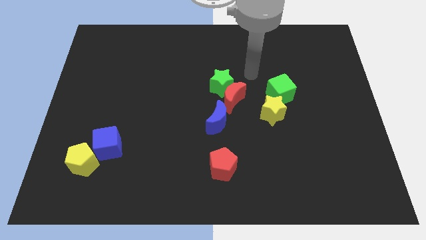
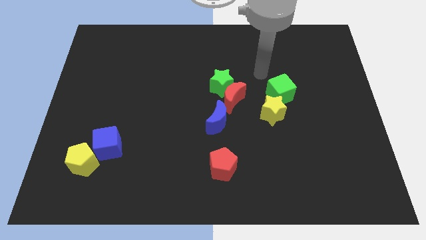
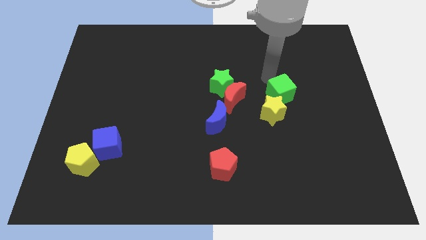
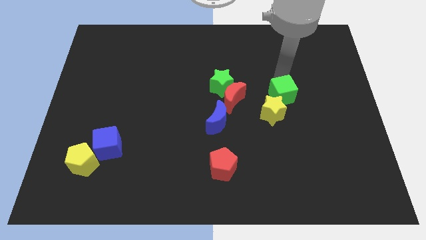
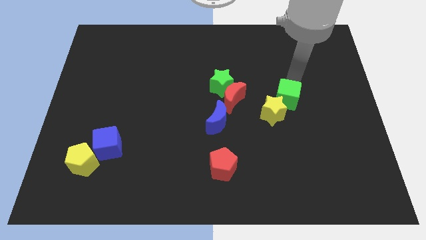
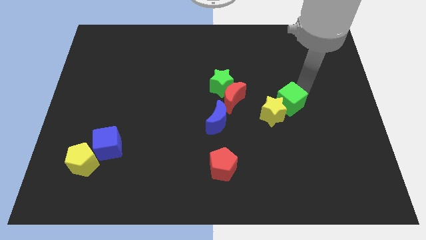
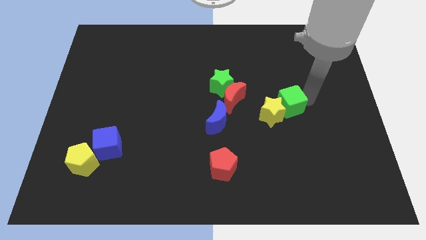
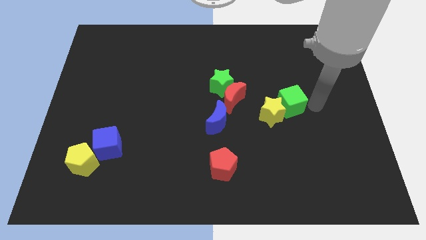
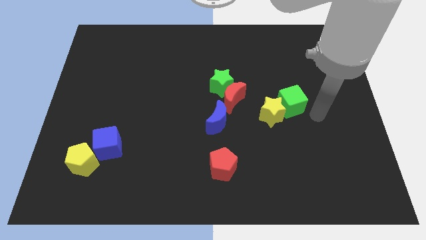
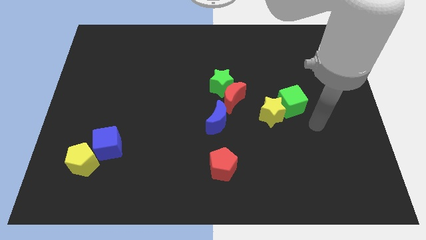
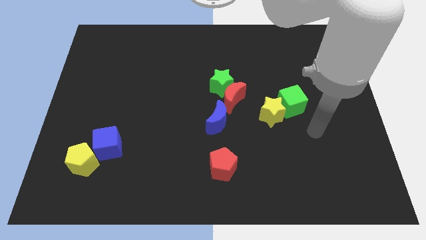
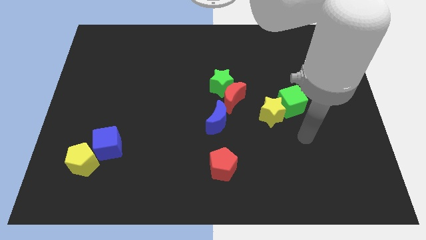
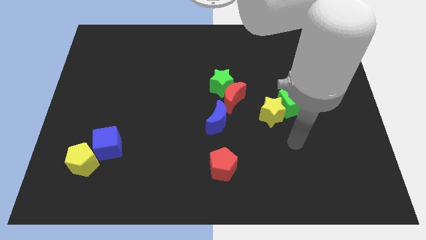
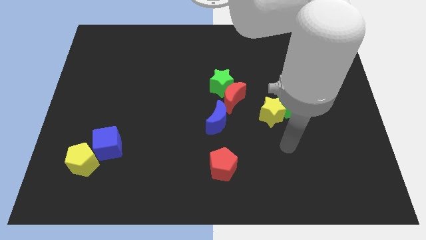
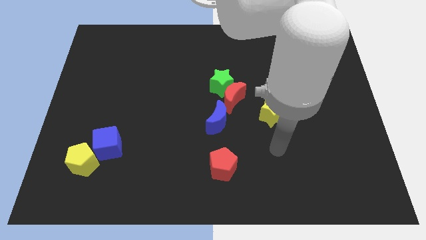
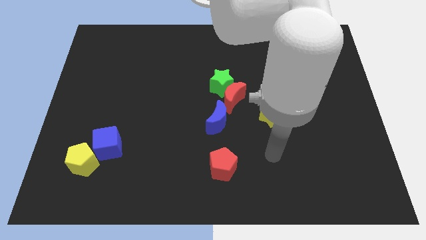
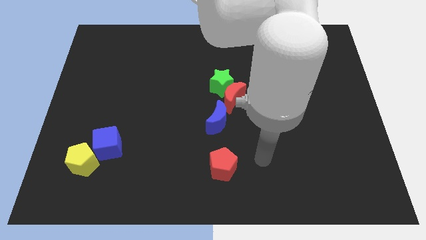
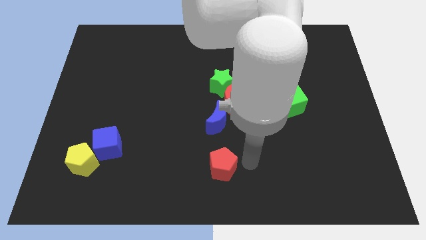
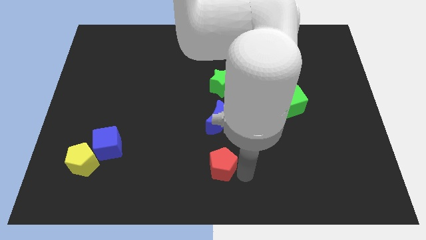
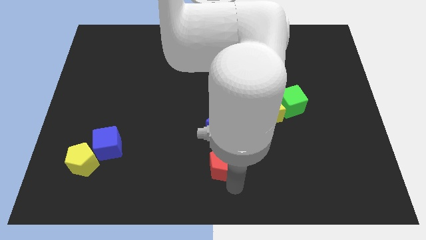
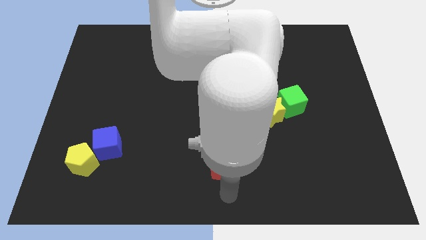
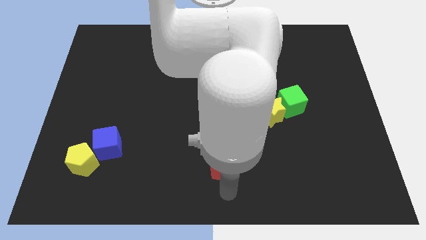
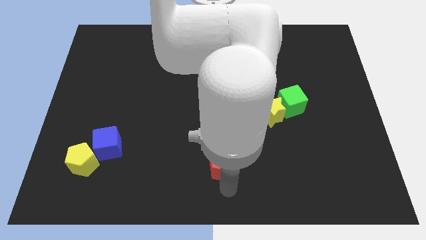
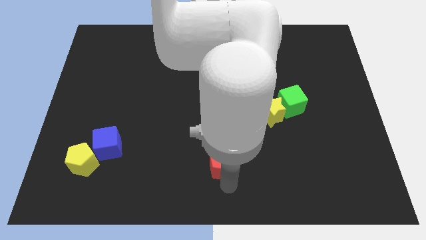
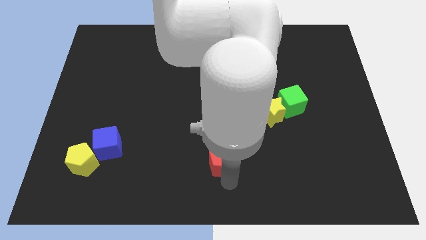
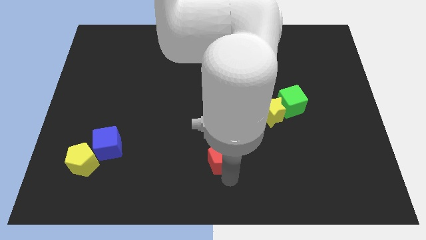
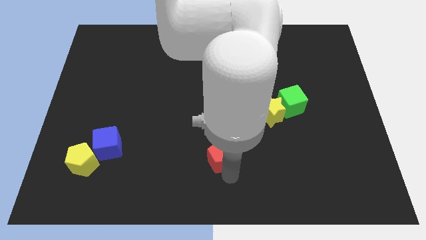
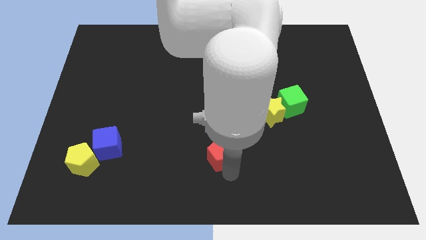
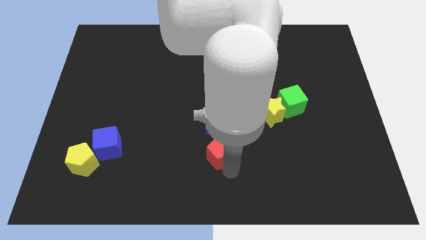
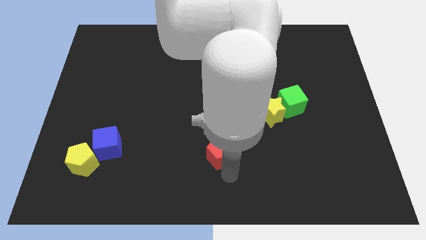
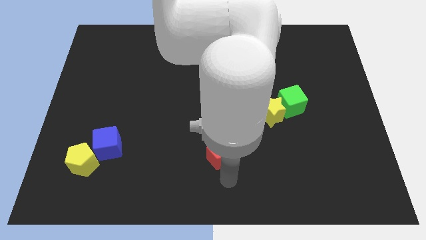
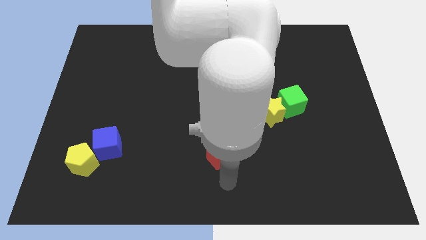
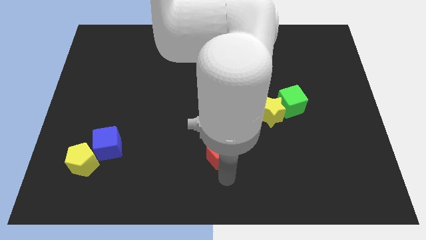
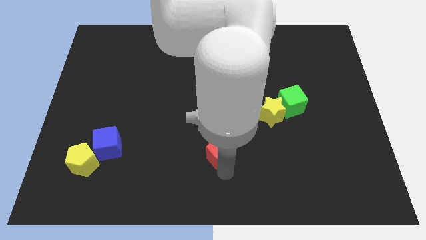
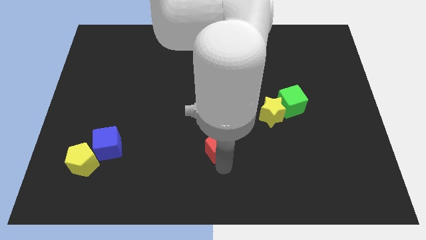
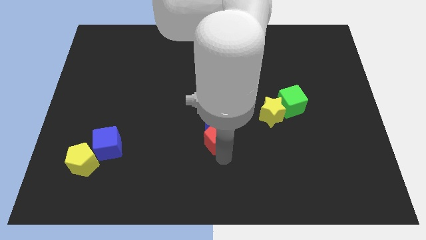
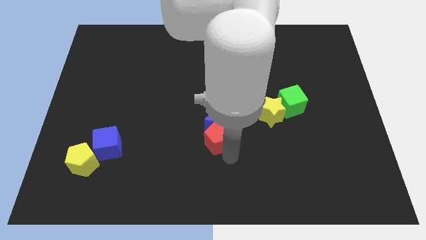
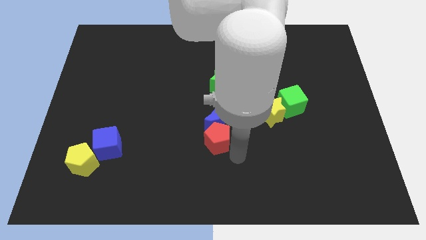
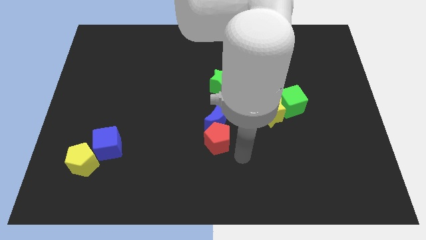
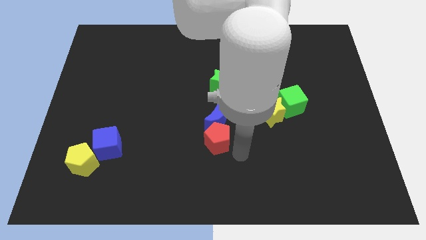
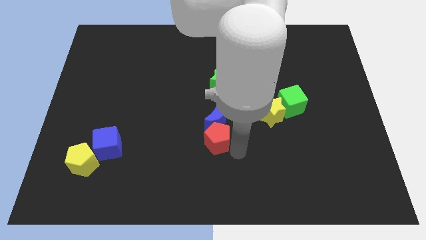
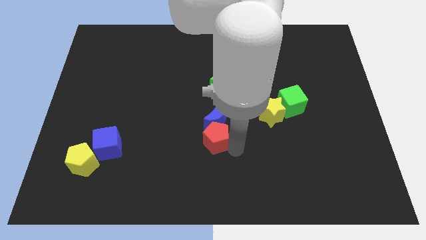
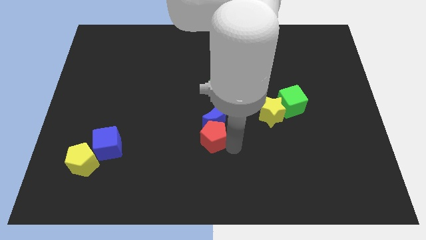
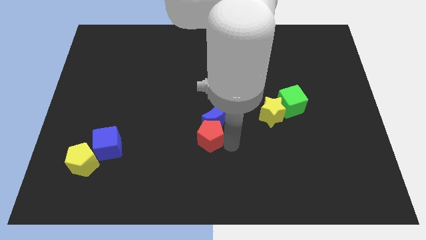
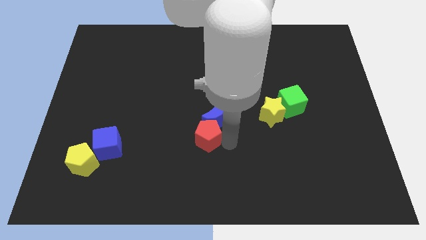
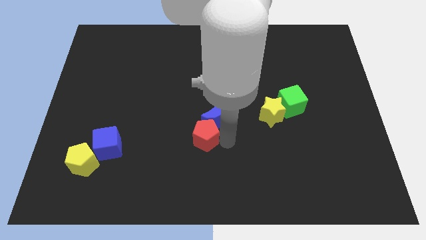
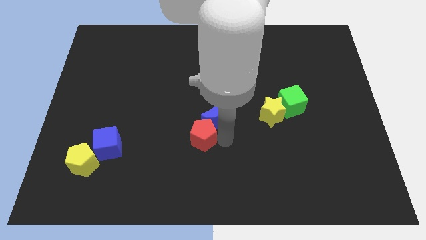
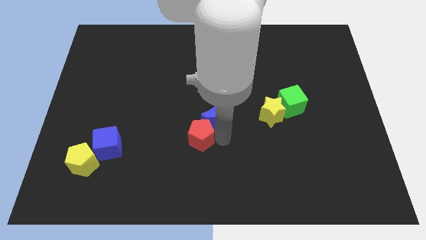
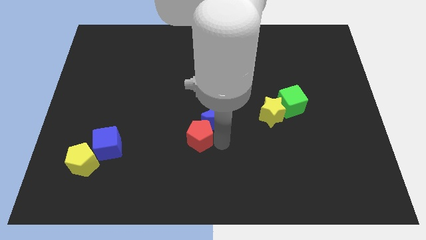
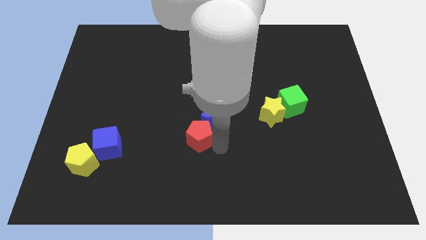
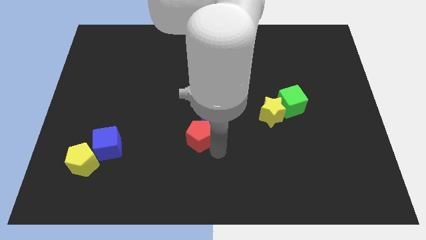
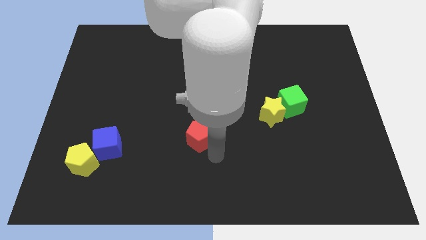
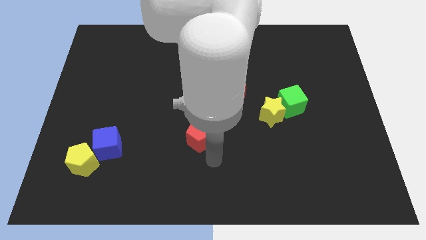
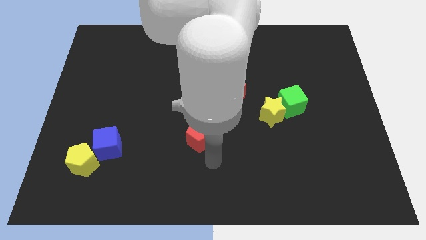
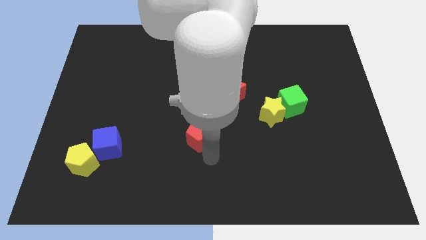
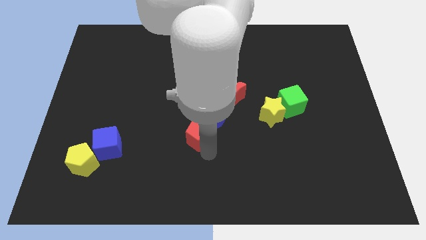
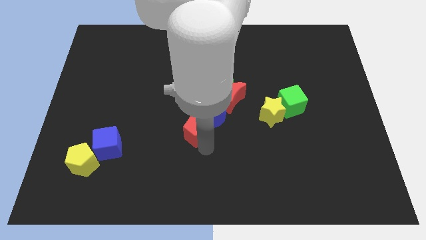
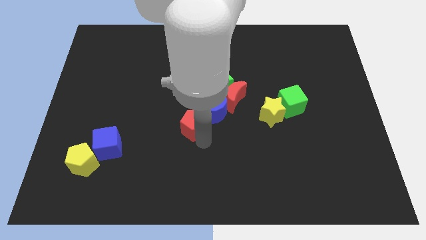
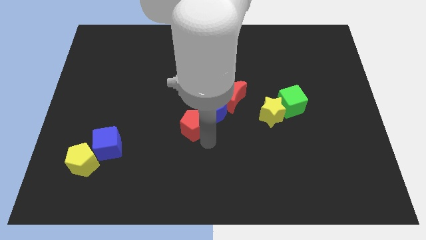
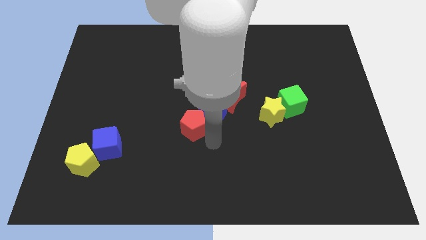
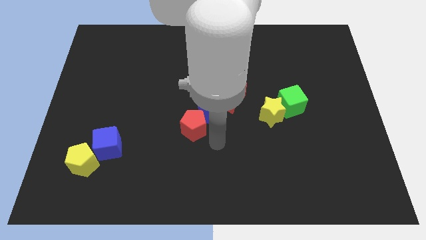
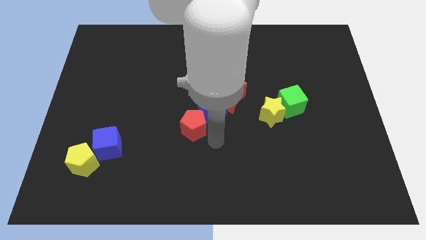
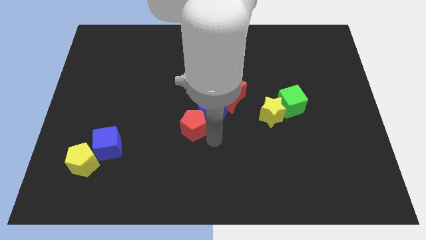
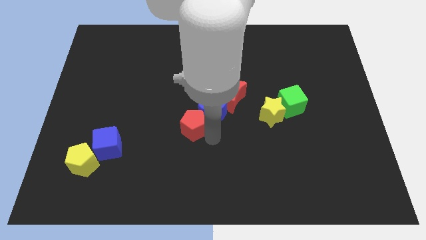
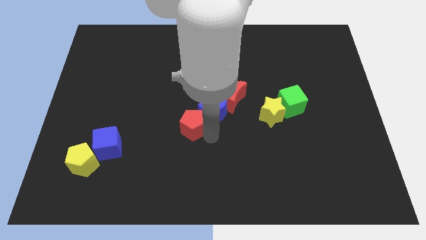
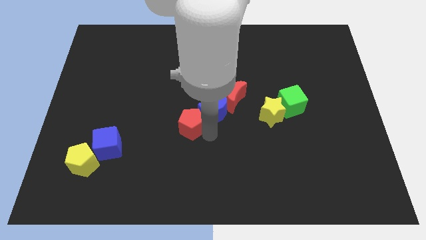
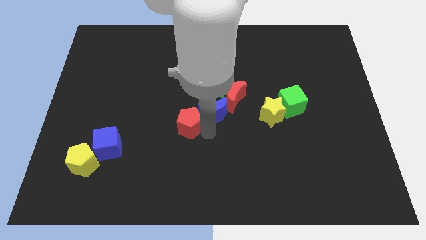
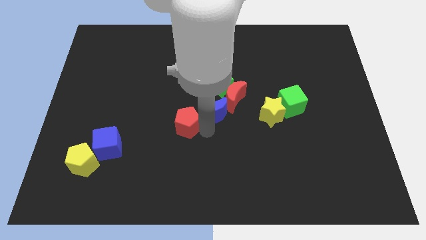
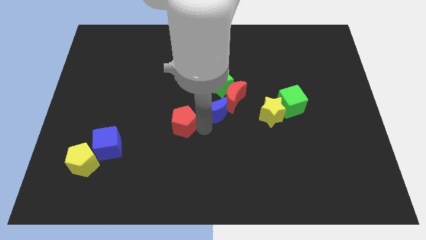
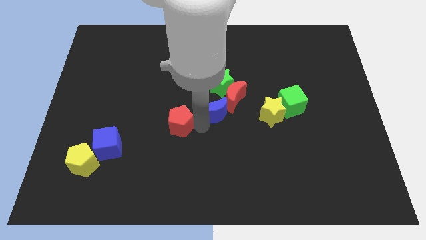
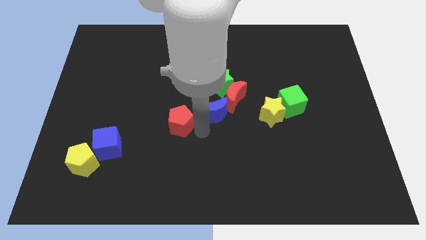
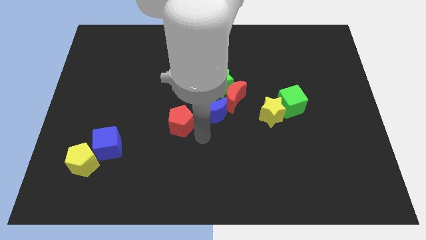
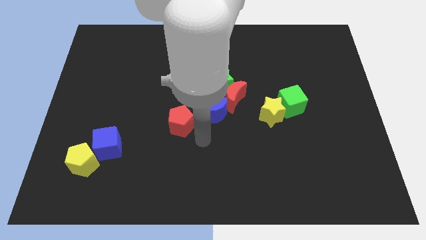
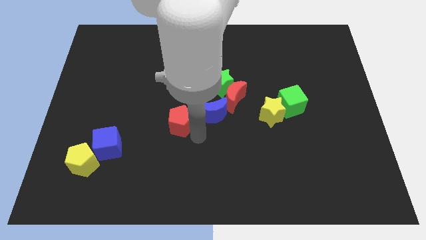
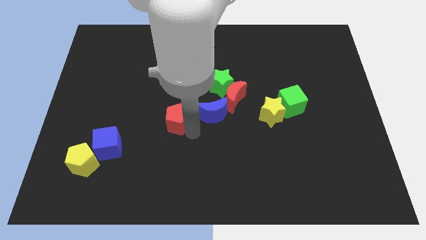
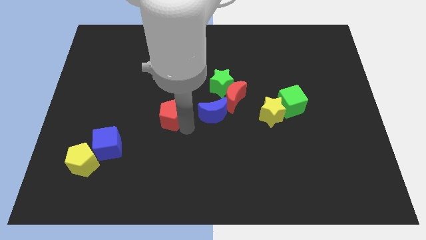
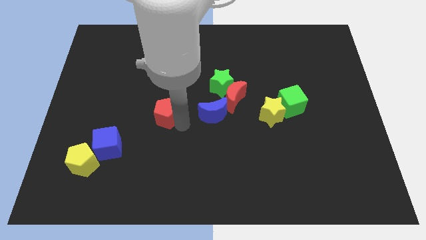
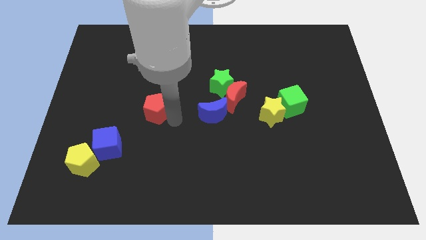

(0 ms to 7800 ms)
push the red pentagon diagonally upwards and left
